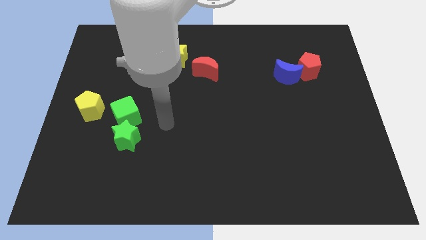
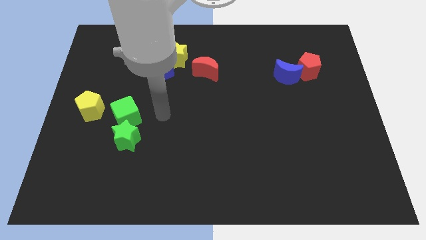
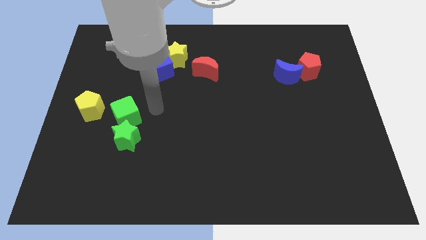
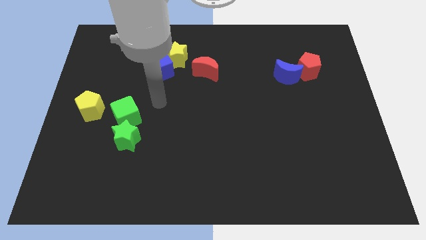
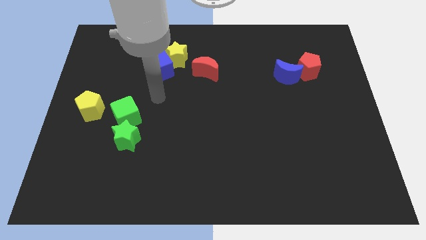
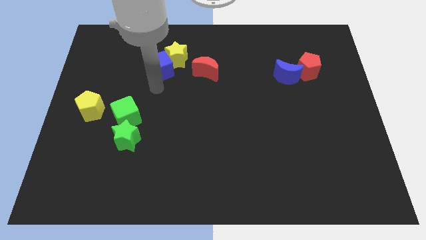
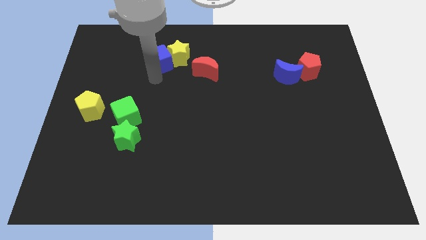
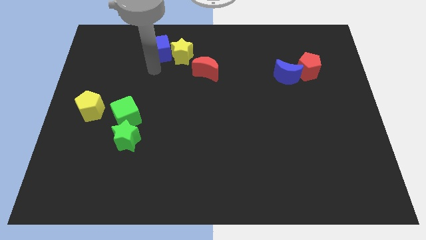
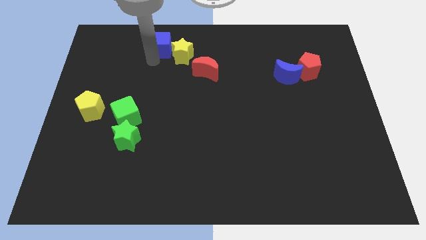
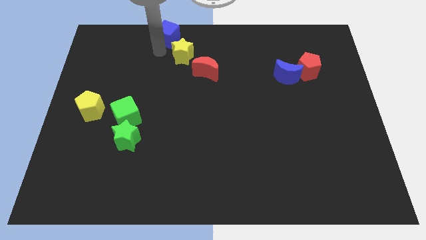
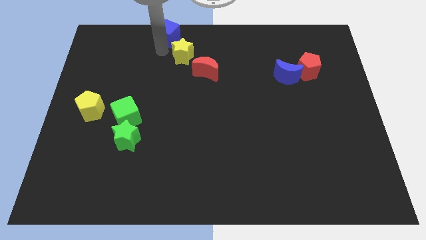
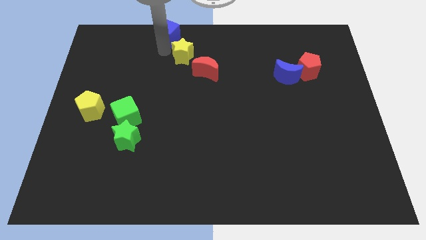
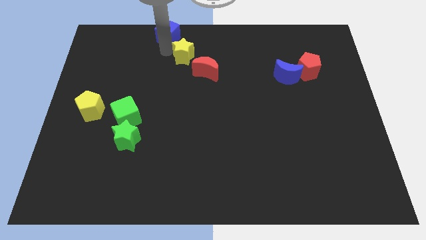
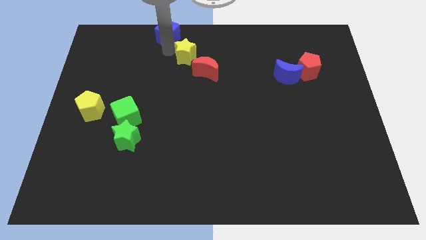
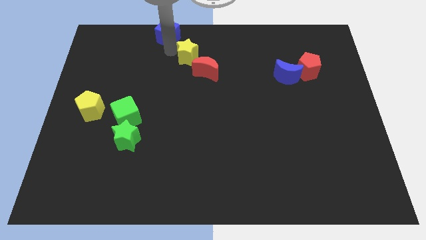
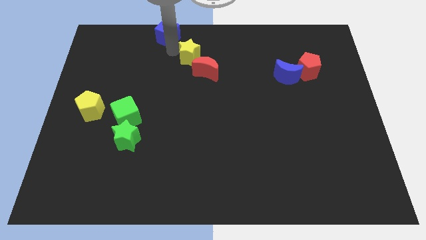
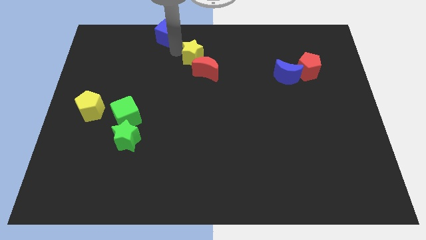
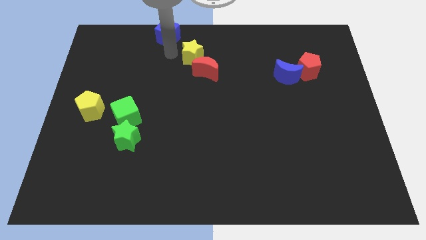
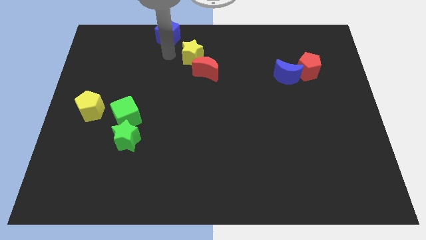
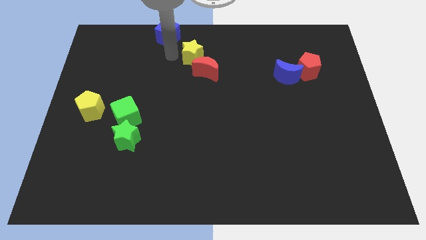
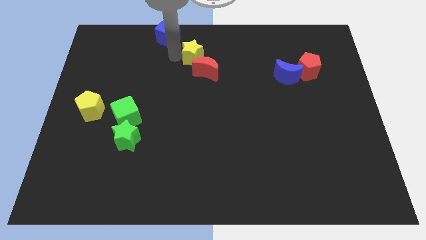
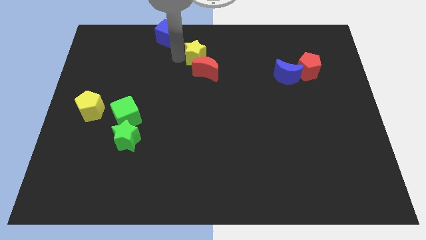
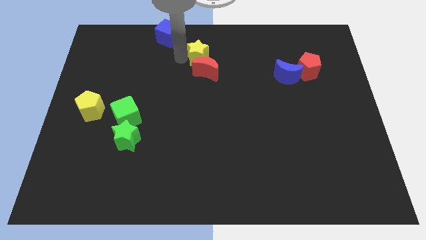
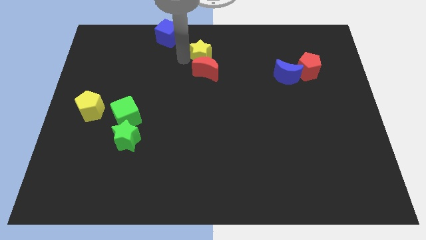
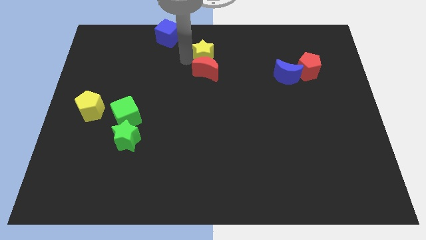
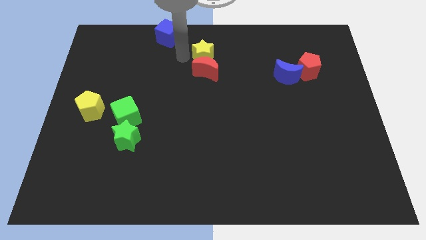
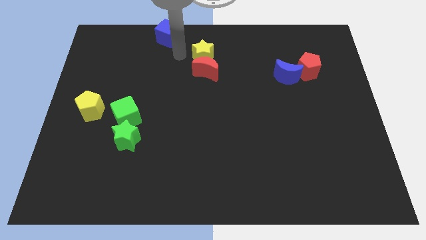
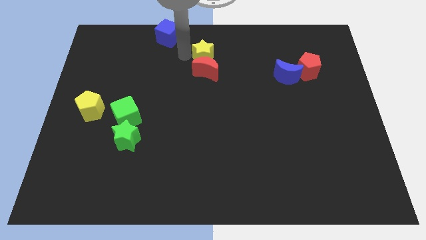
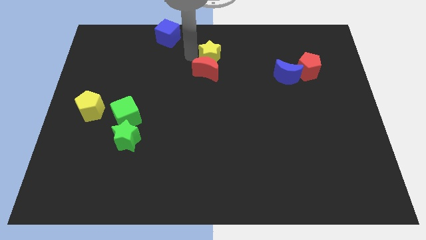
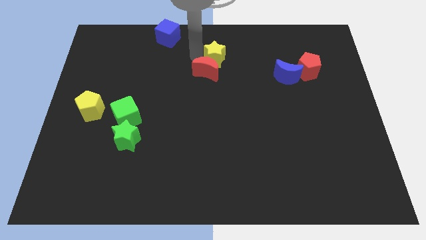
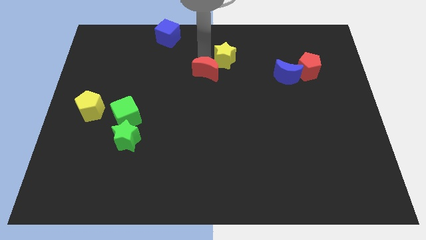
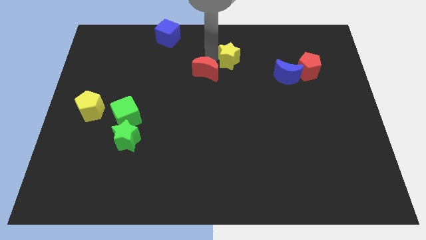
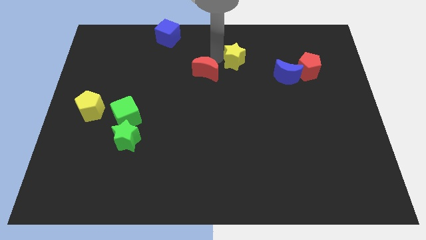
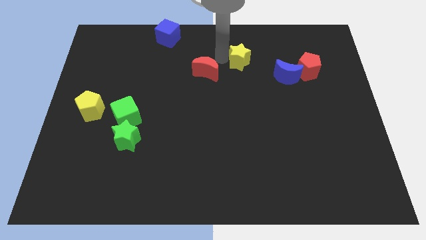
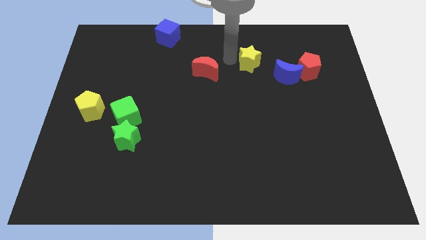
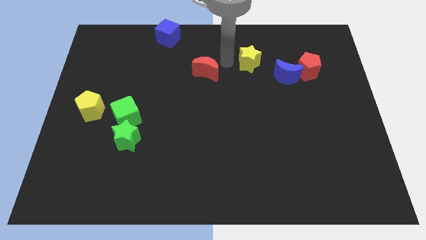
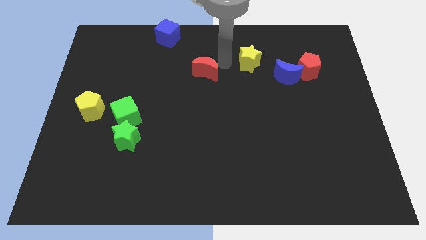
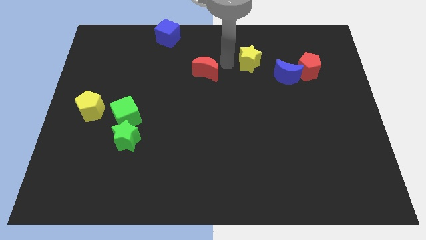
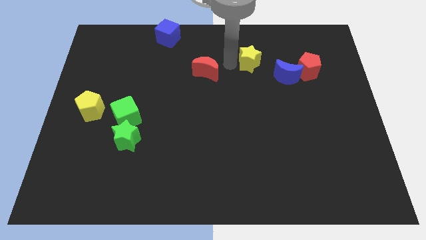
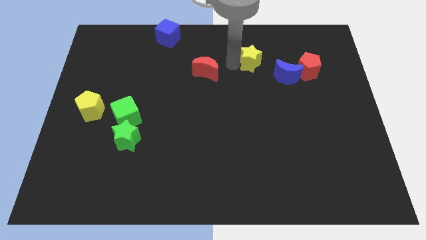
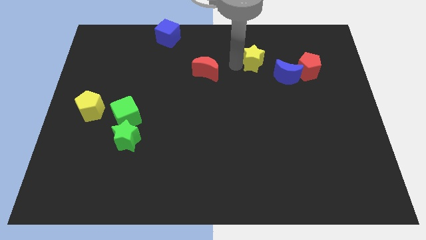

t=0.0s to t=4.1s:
slide the yellow star to the right

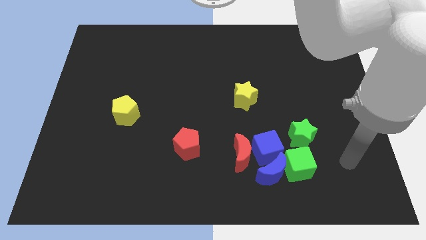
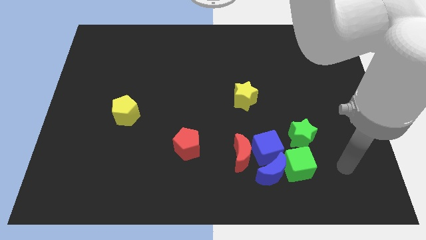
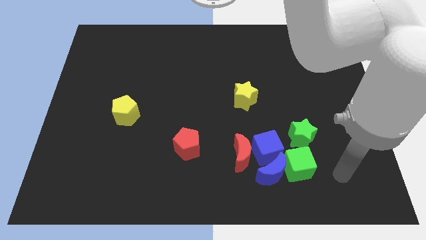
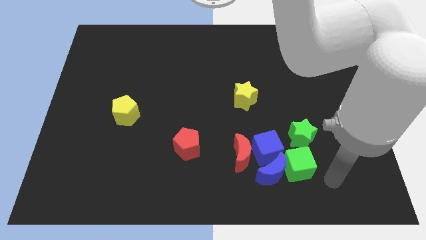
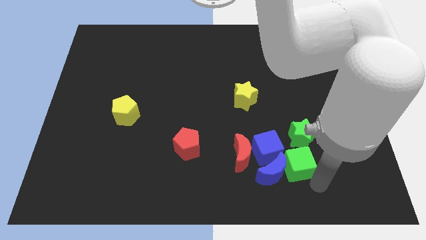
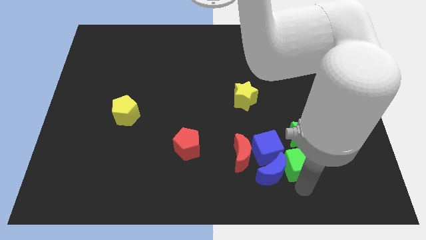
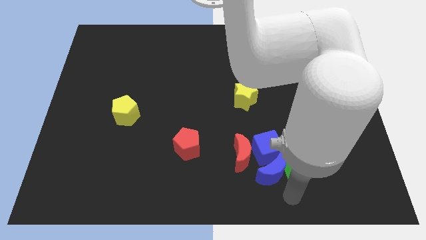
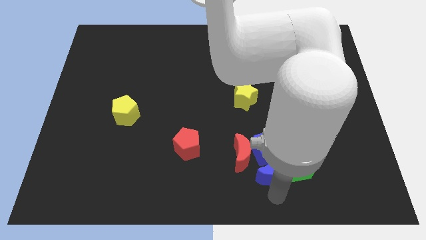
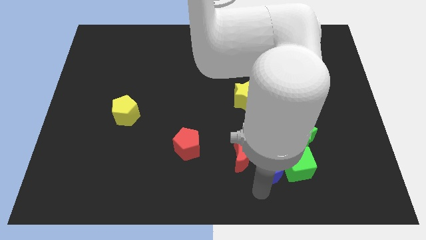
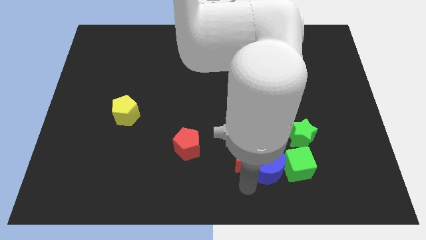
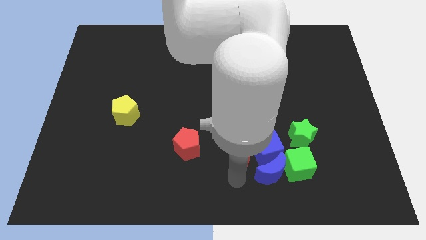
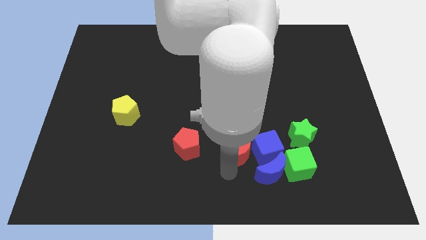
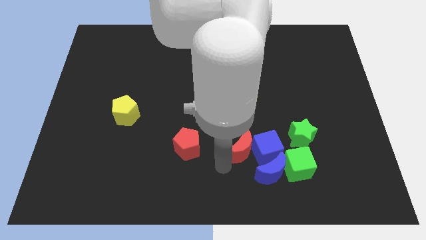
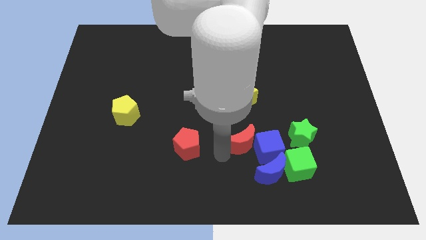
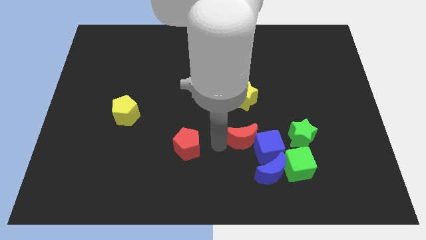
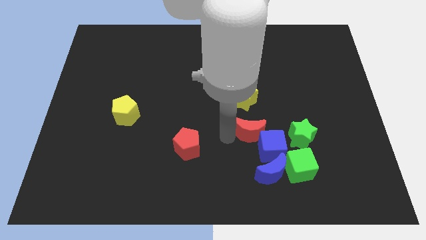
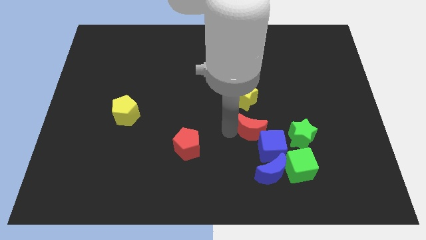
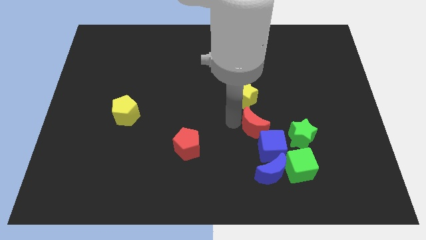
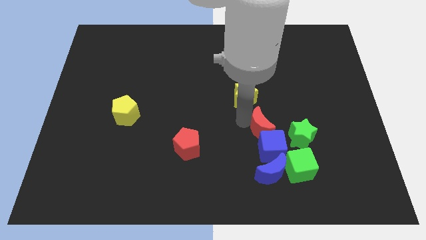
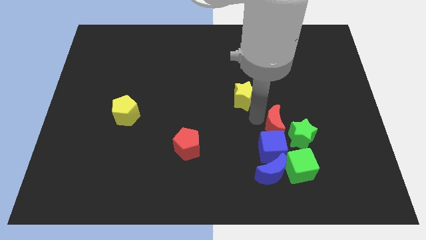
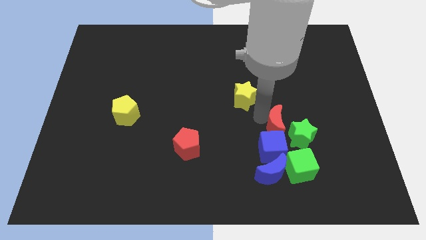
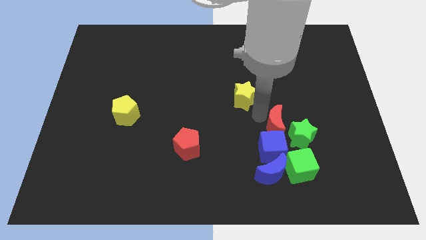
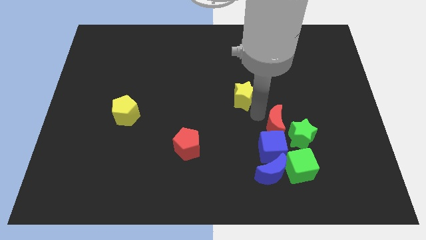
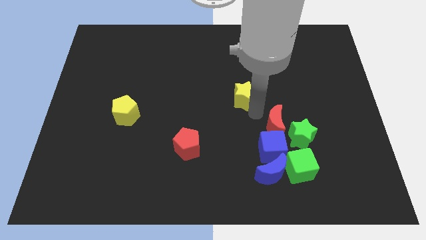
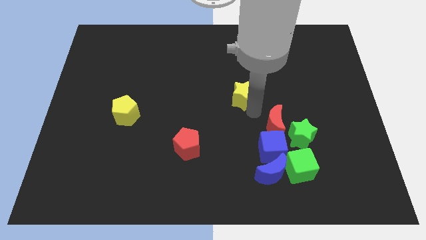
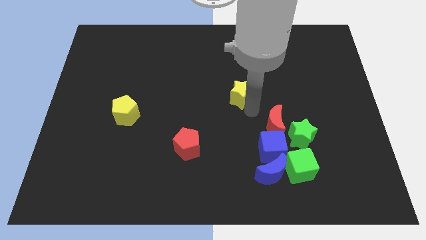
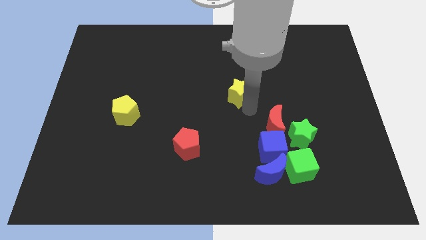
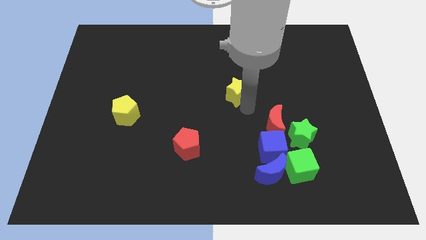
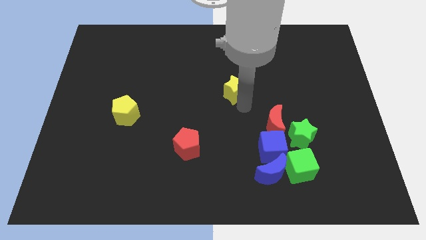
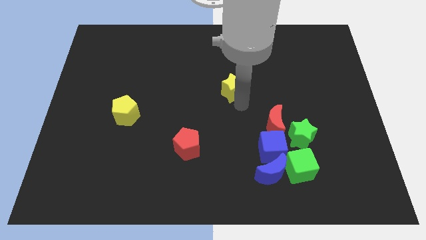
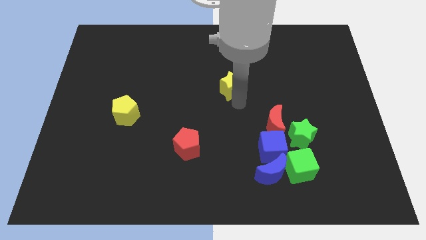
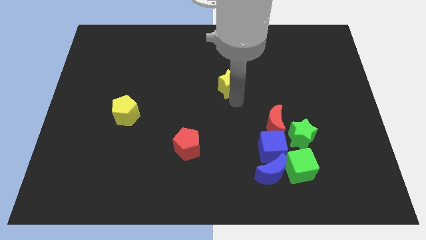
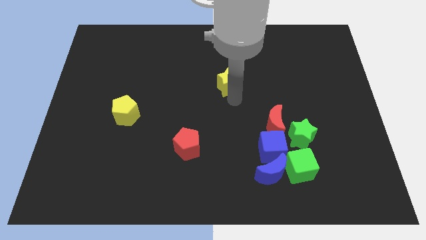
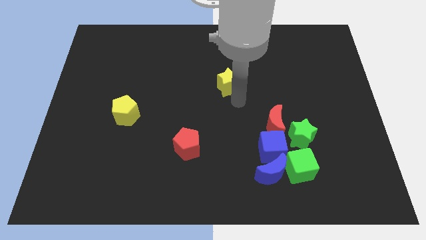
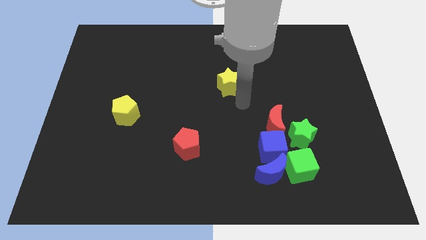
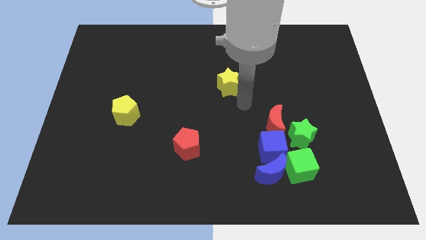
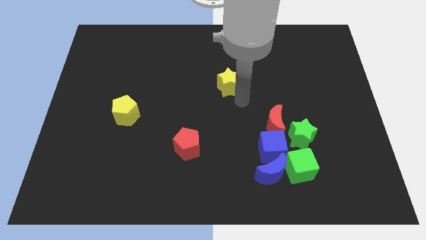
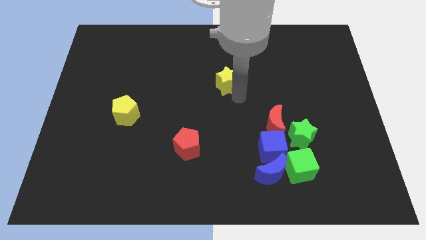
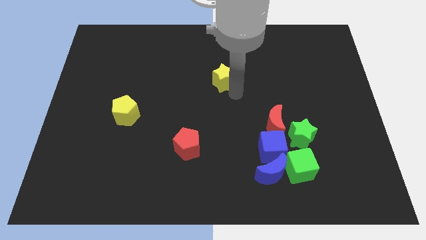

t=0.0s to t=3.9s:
slide the yellow star upwards and to the left slightly

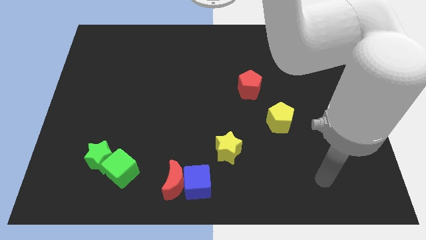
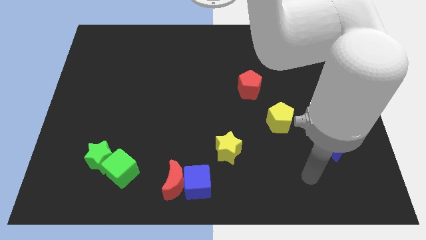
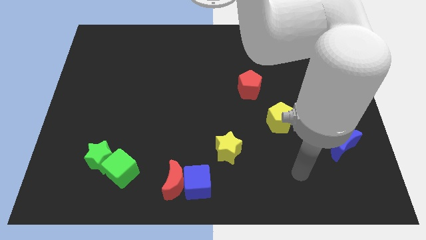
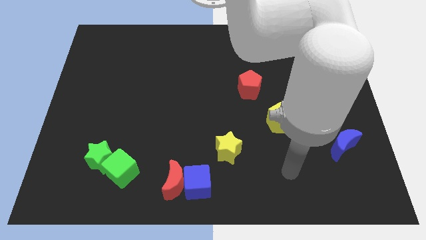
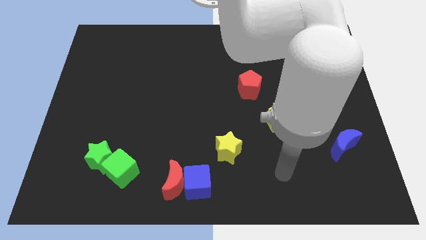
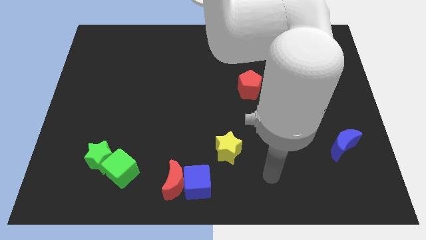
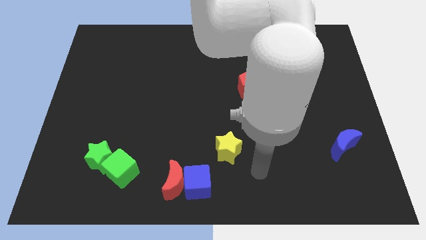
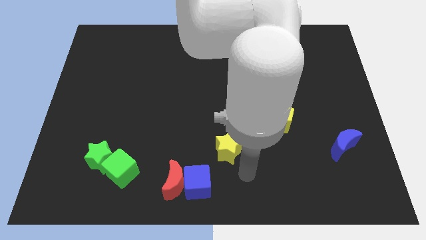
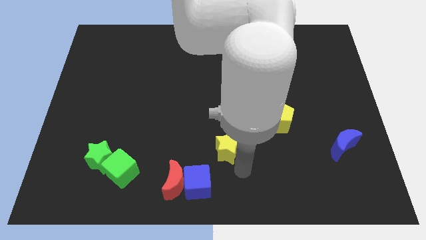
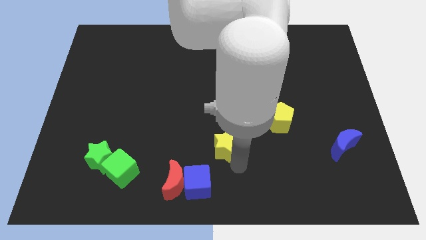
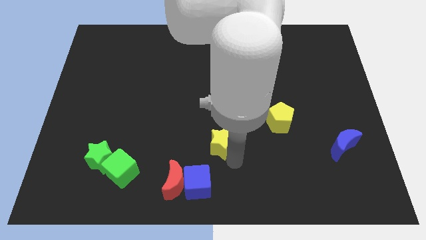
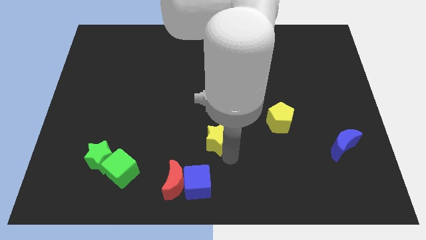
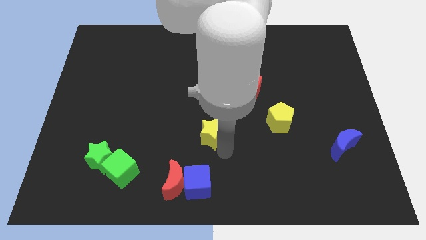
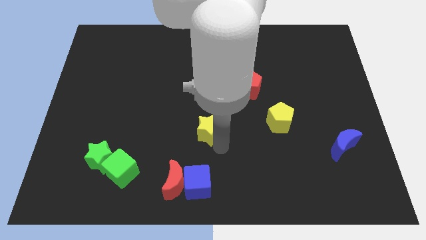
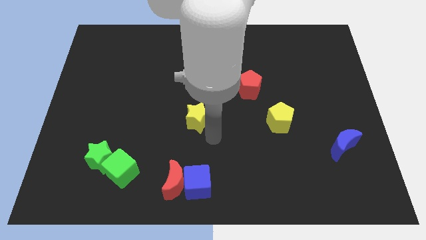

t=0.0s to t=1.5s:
slightly slide the yellow star up and to the left diagonally
